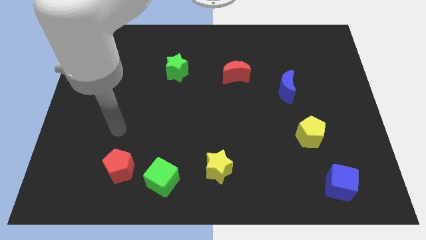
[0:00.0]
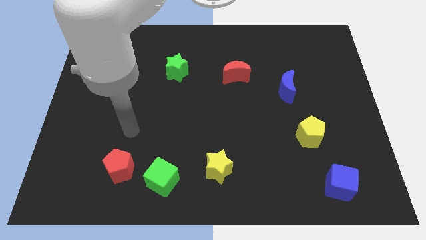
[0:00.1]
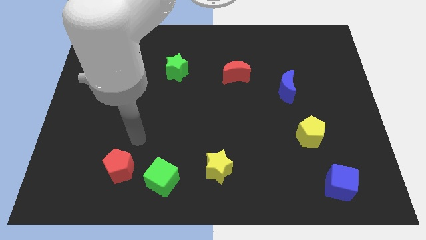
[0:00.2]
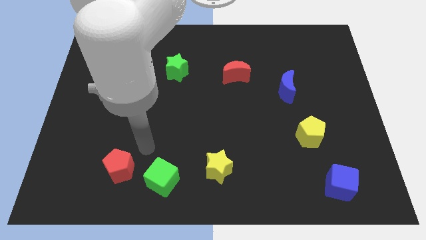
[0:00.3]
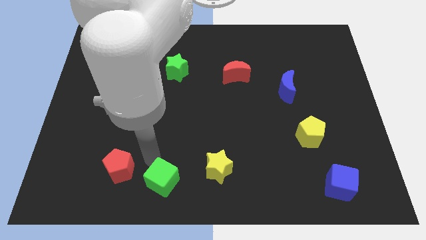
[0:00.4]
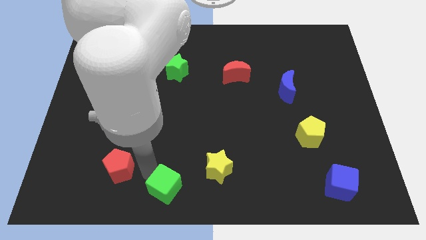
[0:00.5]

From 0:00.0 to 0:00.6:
move the red pentagon away from the green cube

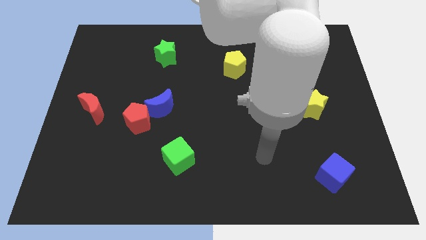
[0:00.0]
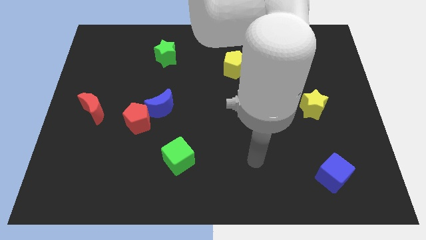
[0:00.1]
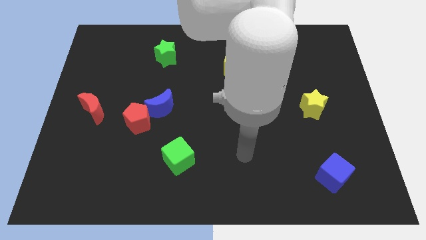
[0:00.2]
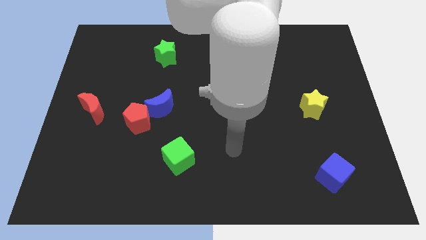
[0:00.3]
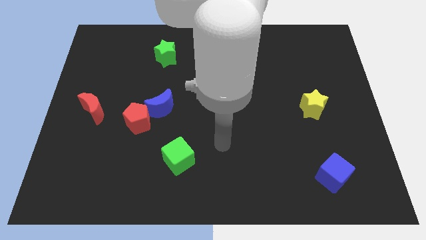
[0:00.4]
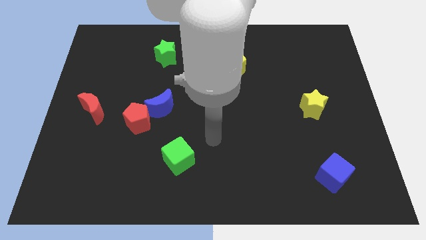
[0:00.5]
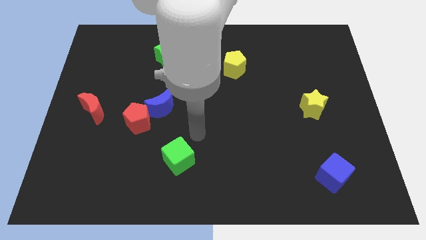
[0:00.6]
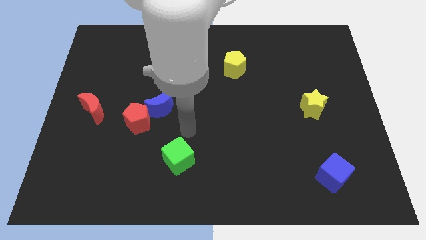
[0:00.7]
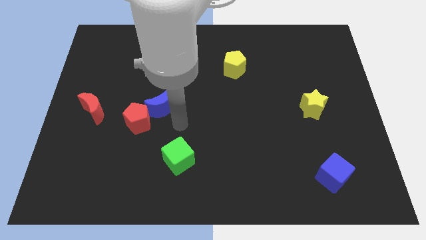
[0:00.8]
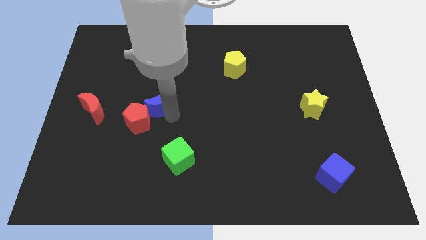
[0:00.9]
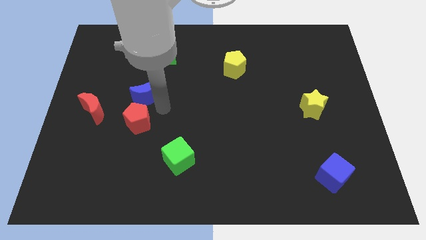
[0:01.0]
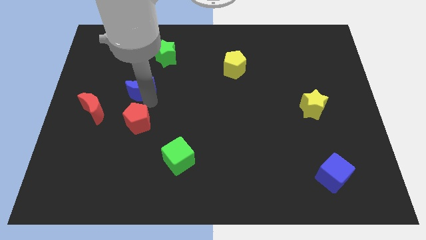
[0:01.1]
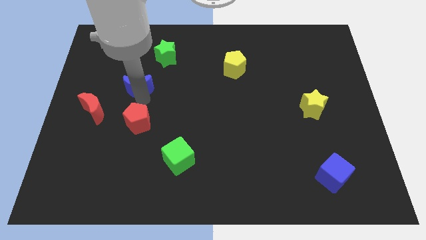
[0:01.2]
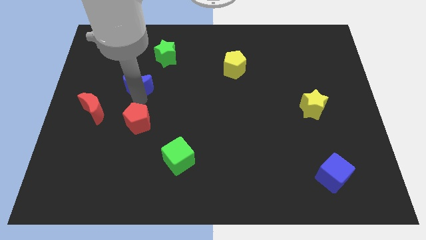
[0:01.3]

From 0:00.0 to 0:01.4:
separate the red pentagon from the blue moon

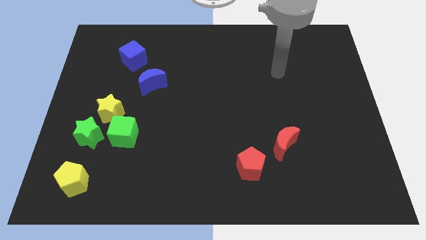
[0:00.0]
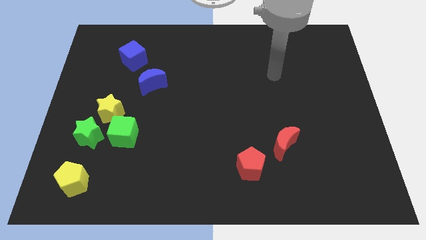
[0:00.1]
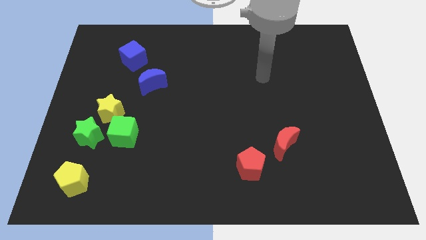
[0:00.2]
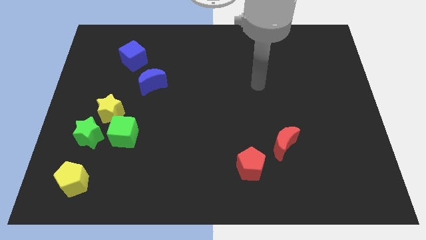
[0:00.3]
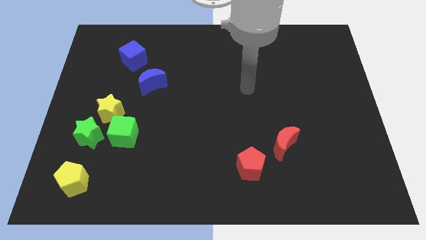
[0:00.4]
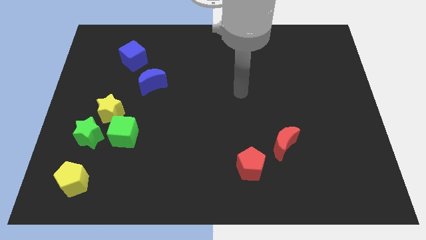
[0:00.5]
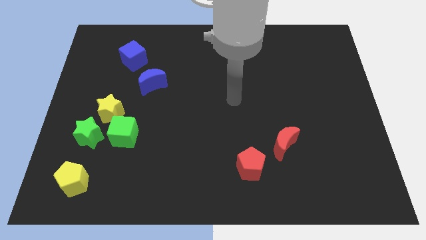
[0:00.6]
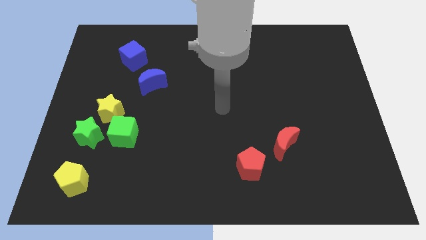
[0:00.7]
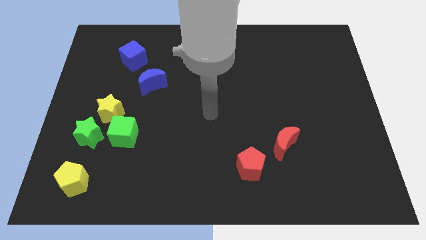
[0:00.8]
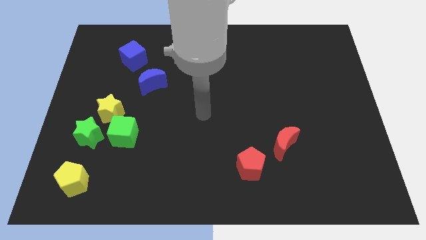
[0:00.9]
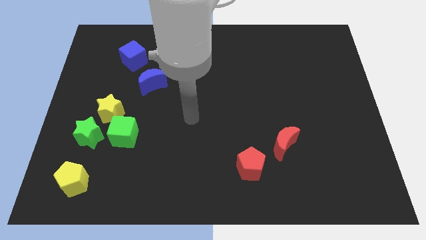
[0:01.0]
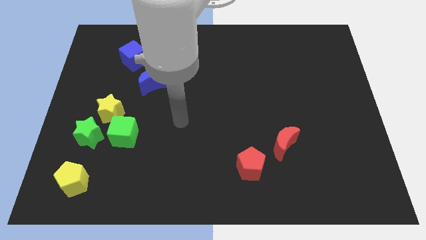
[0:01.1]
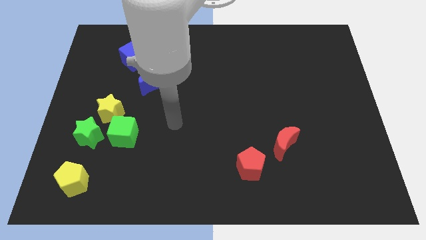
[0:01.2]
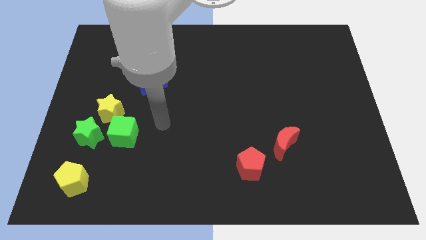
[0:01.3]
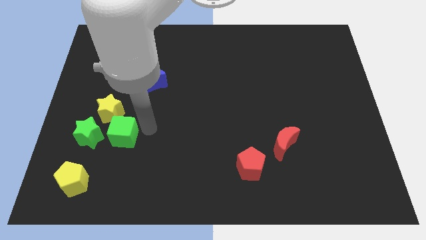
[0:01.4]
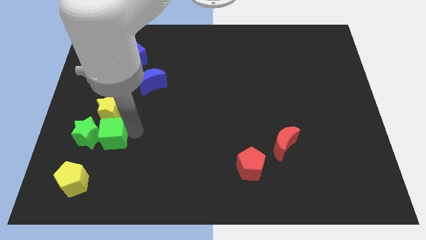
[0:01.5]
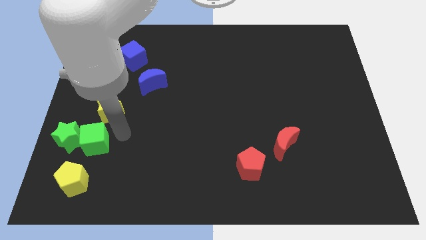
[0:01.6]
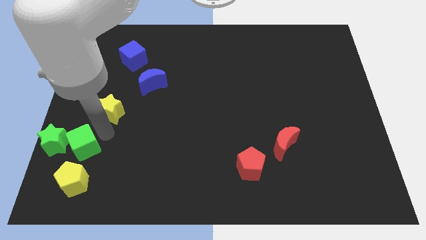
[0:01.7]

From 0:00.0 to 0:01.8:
pull the yellow star apart from the green star and green cube

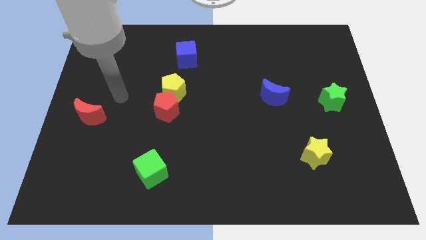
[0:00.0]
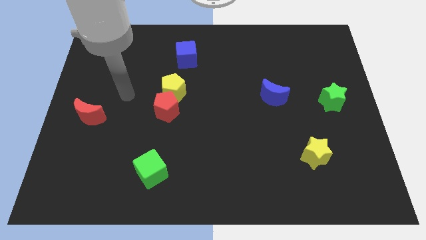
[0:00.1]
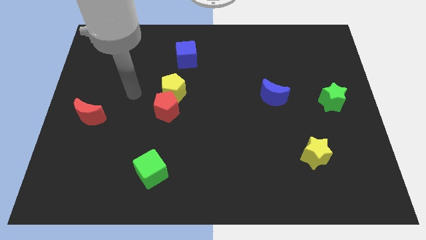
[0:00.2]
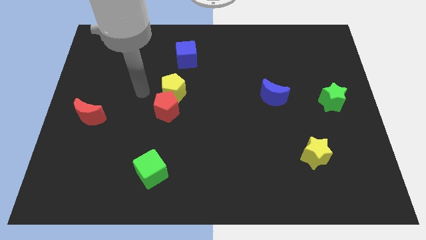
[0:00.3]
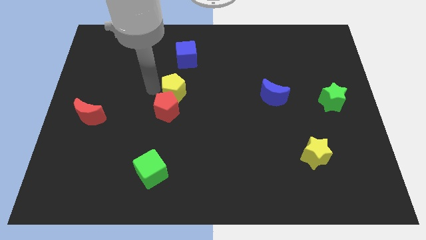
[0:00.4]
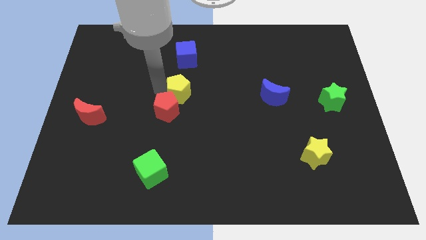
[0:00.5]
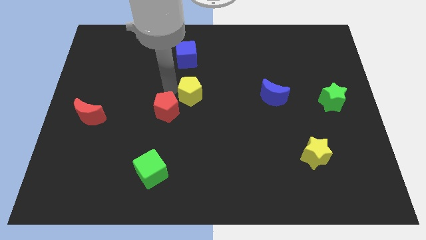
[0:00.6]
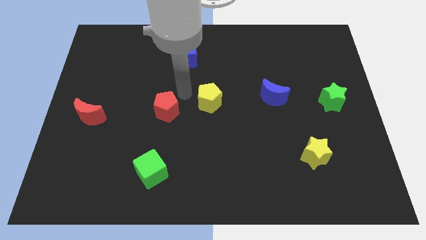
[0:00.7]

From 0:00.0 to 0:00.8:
move the red pentagon away from the yellow pentagon

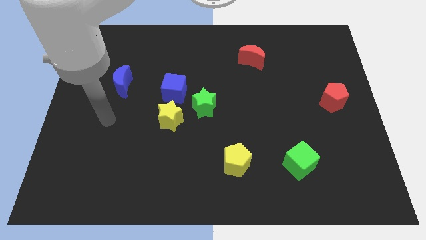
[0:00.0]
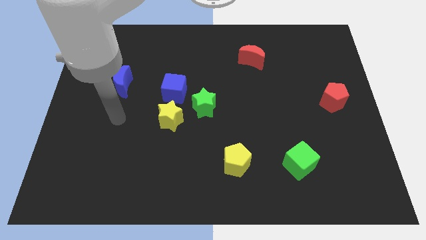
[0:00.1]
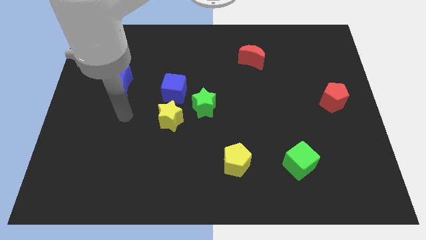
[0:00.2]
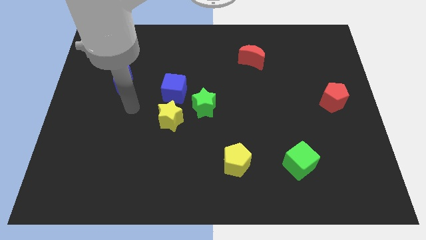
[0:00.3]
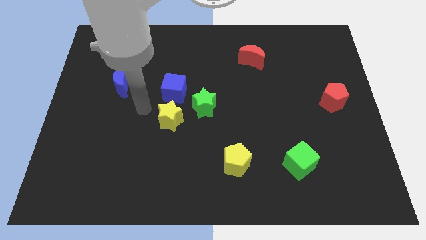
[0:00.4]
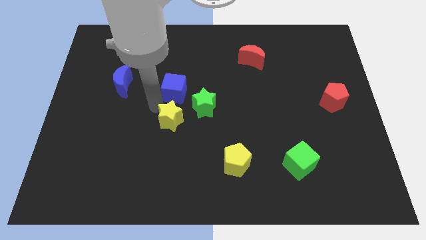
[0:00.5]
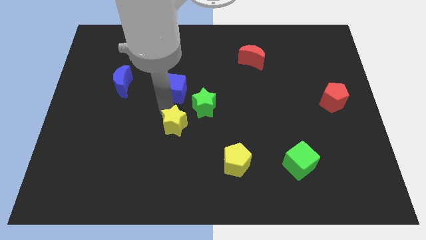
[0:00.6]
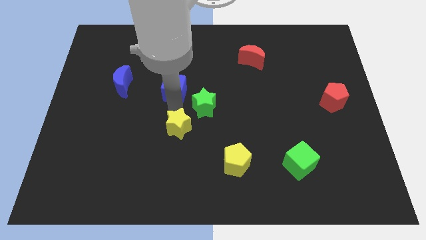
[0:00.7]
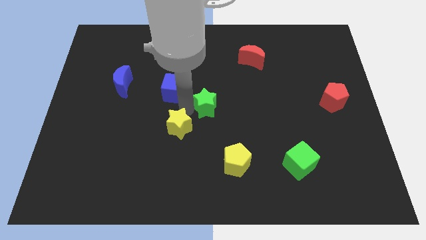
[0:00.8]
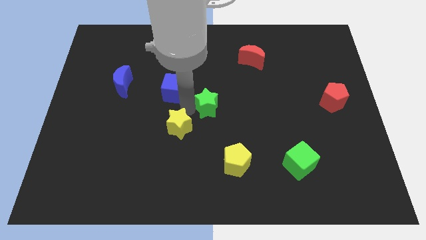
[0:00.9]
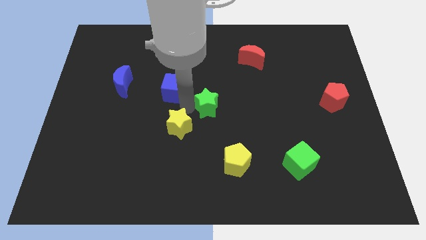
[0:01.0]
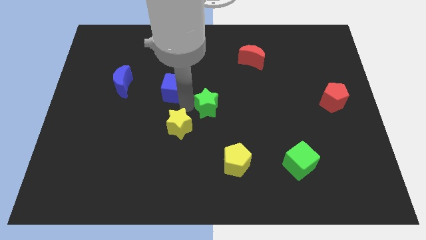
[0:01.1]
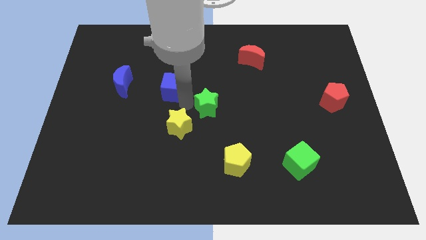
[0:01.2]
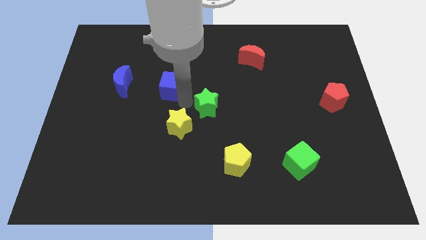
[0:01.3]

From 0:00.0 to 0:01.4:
move the blue cube away from the yellow star and green star

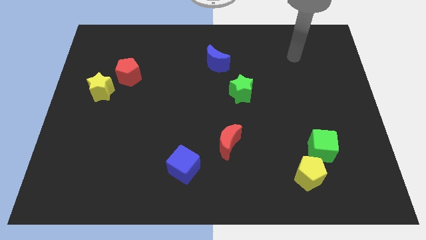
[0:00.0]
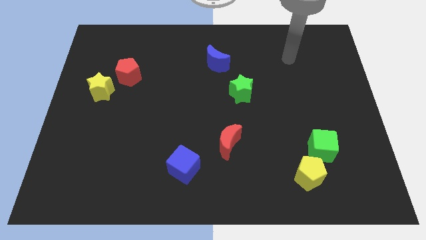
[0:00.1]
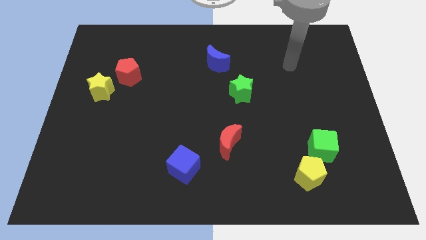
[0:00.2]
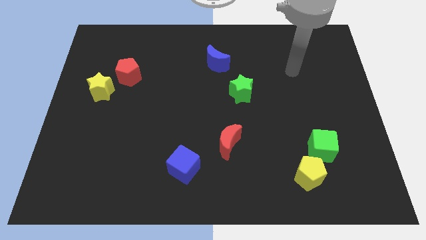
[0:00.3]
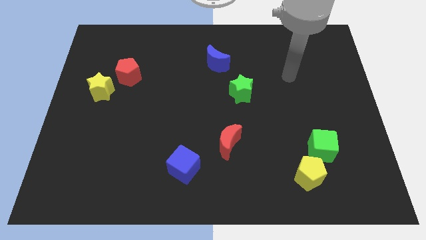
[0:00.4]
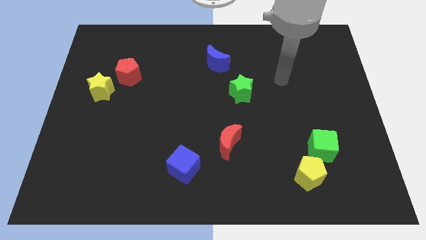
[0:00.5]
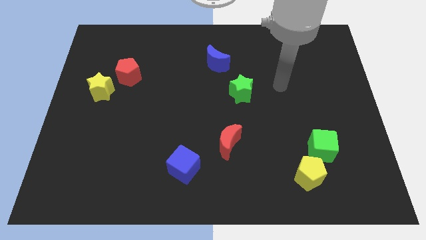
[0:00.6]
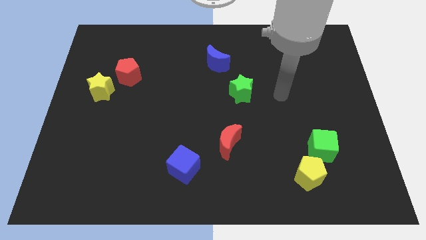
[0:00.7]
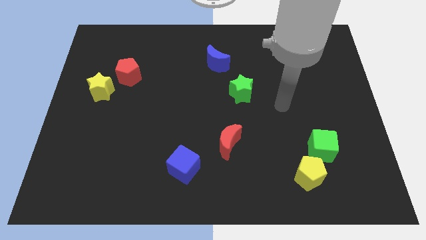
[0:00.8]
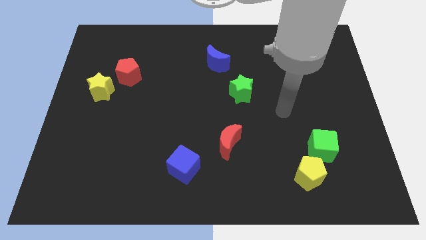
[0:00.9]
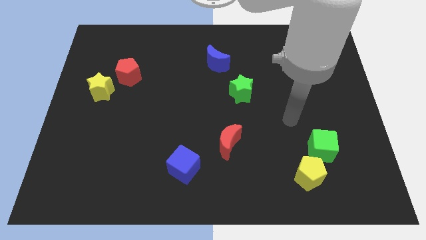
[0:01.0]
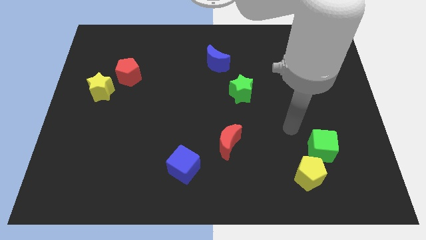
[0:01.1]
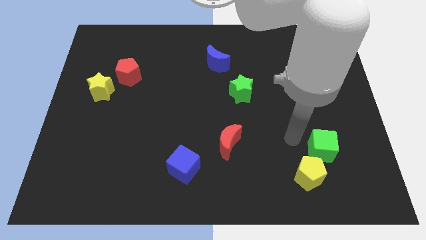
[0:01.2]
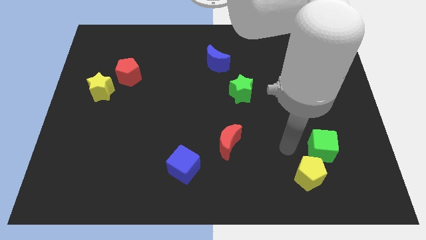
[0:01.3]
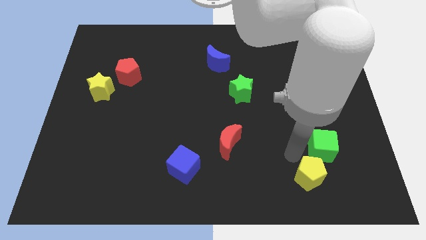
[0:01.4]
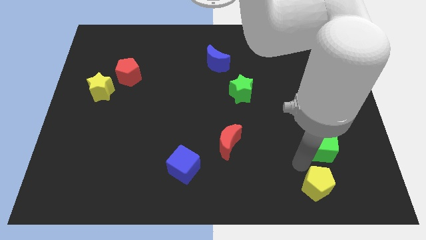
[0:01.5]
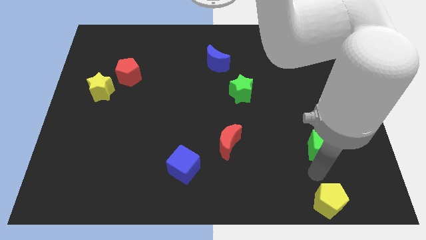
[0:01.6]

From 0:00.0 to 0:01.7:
separate the green cube from the yellow pentagon

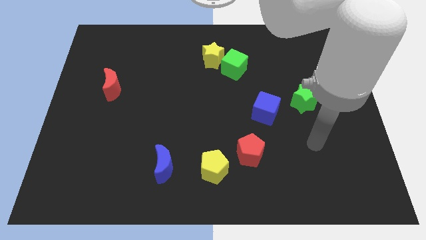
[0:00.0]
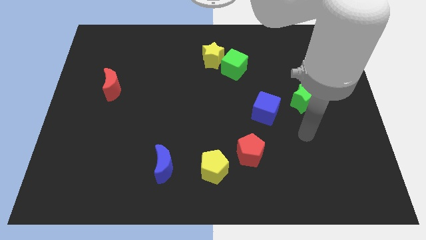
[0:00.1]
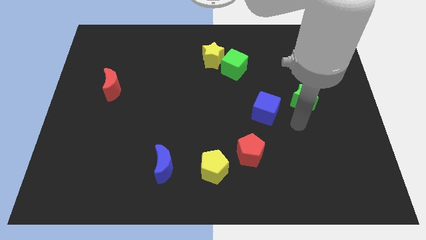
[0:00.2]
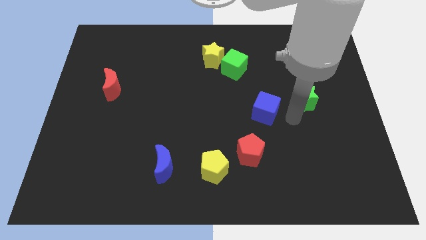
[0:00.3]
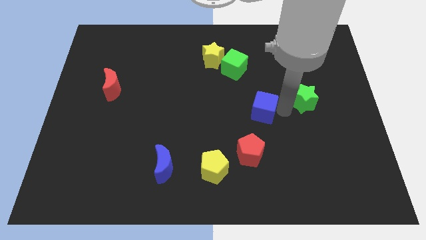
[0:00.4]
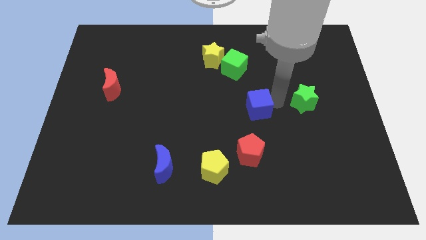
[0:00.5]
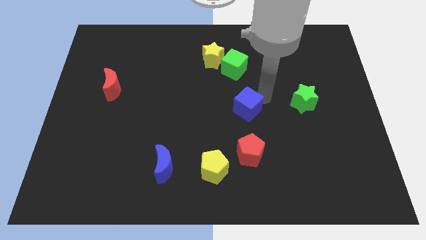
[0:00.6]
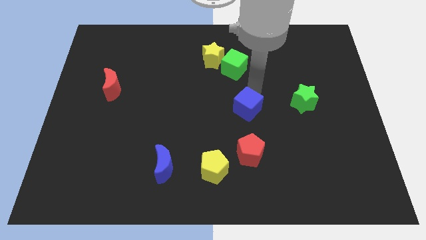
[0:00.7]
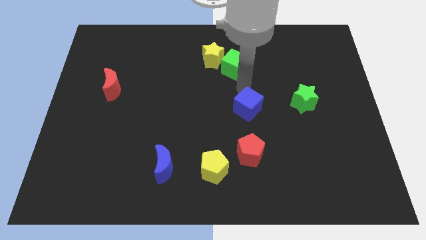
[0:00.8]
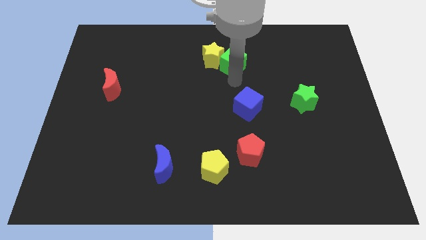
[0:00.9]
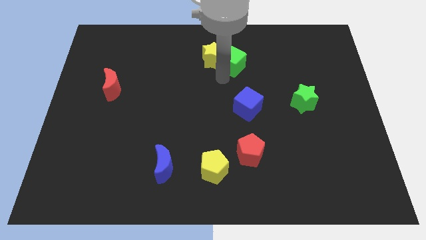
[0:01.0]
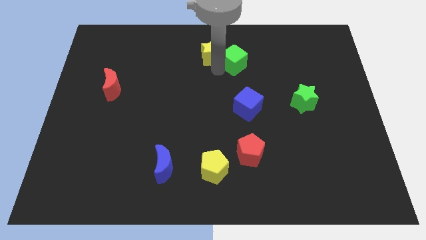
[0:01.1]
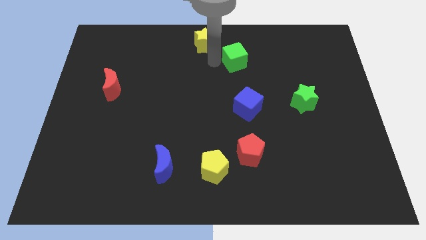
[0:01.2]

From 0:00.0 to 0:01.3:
separate the green cube from the yellow star

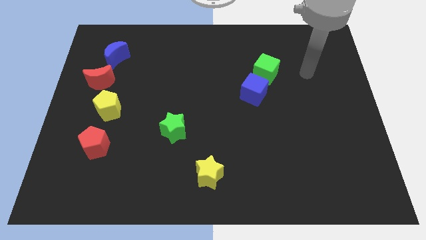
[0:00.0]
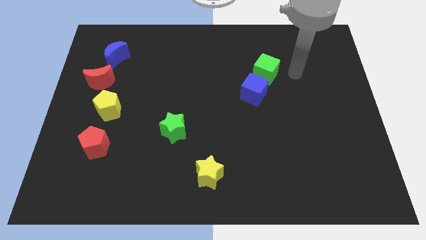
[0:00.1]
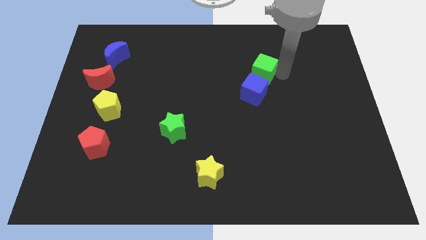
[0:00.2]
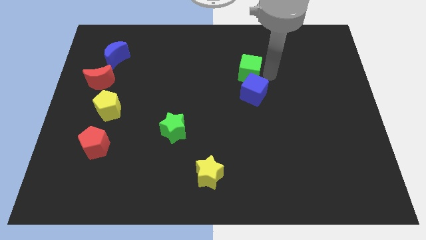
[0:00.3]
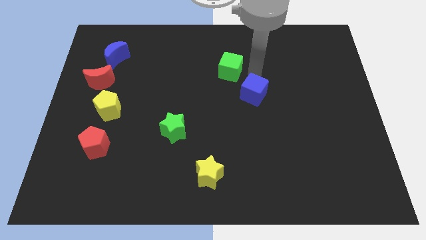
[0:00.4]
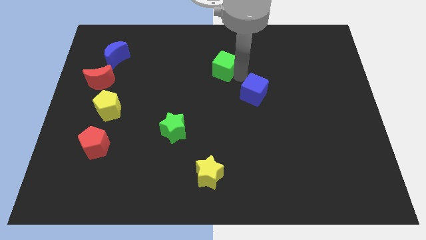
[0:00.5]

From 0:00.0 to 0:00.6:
move the blue cube away from the green cube
